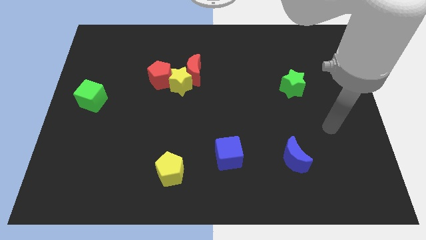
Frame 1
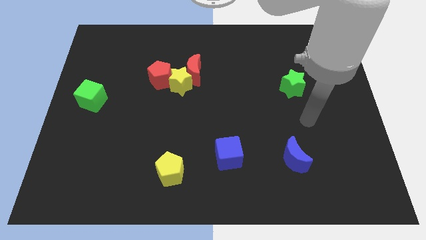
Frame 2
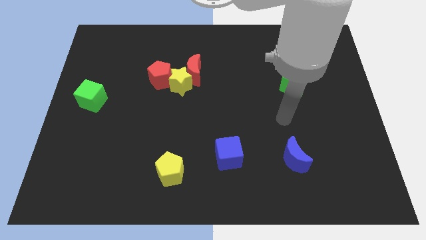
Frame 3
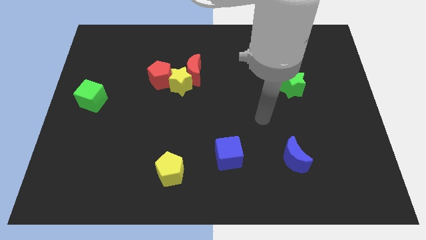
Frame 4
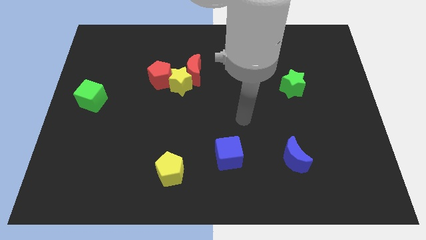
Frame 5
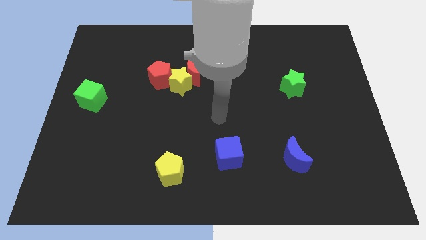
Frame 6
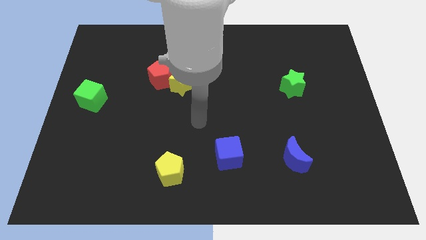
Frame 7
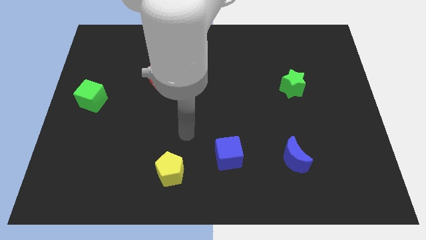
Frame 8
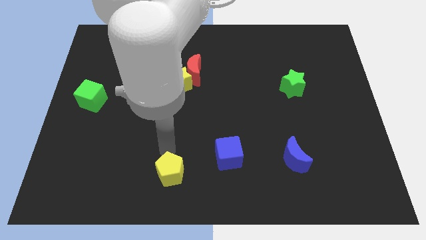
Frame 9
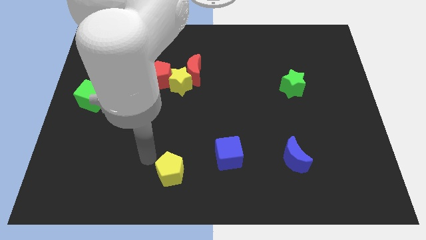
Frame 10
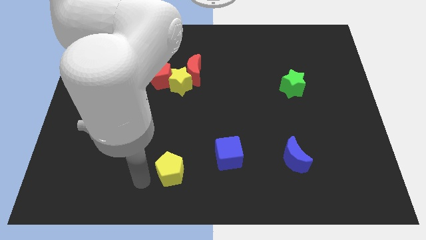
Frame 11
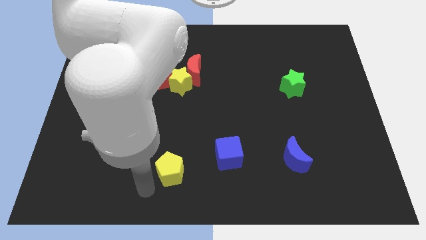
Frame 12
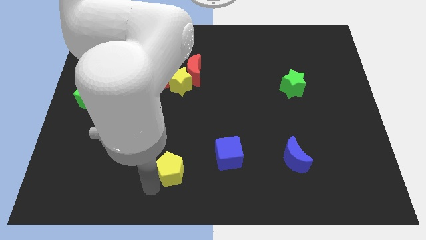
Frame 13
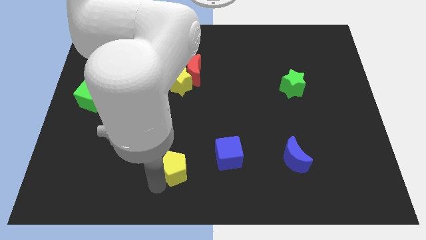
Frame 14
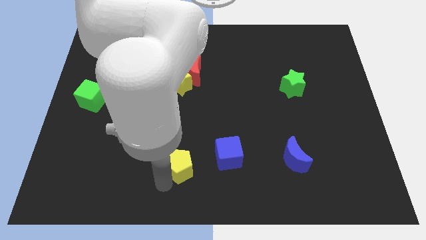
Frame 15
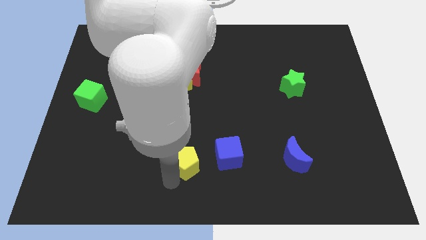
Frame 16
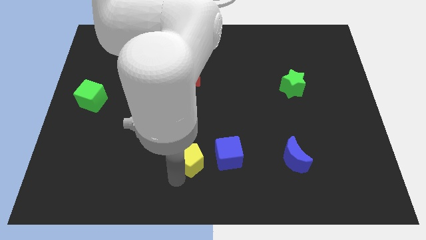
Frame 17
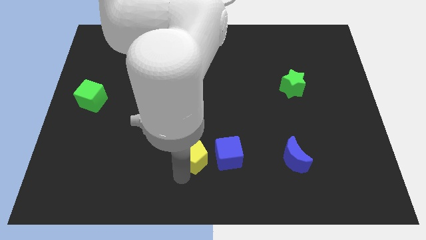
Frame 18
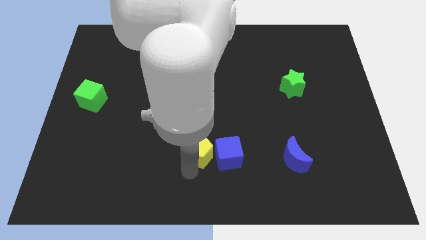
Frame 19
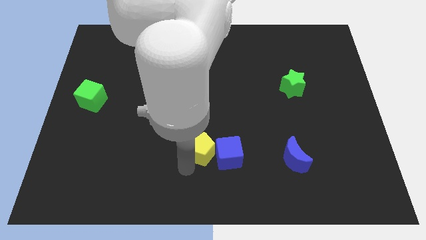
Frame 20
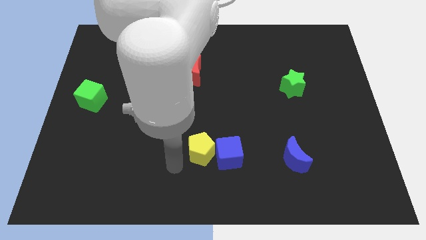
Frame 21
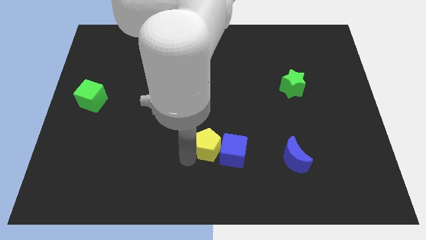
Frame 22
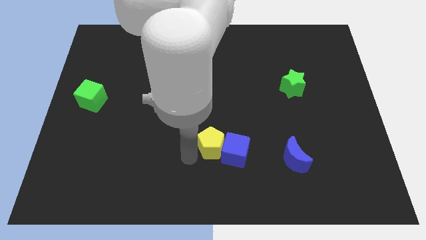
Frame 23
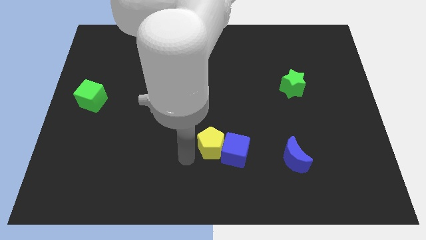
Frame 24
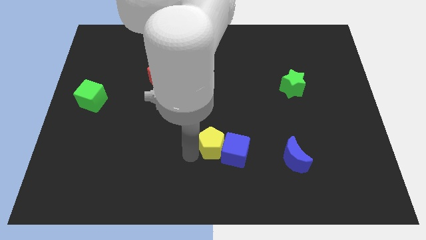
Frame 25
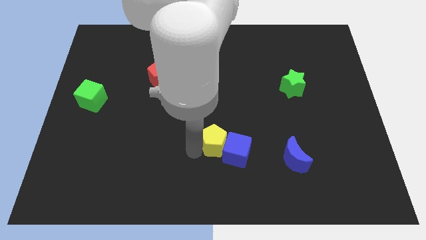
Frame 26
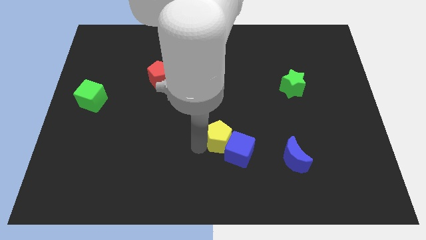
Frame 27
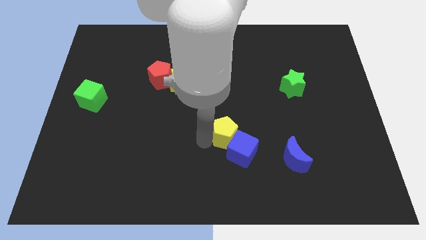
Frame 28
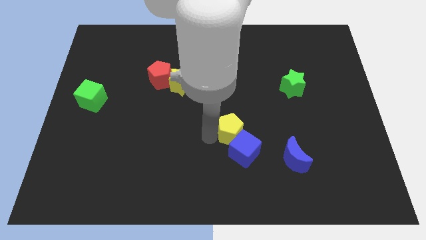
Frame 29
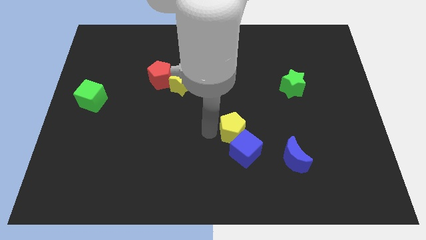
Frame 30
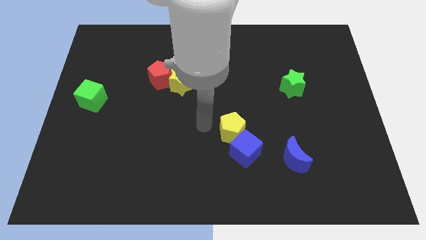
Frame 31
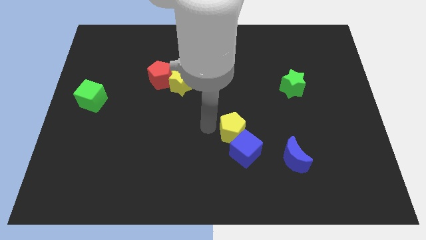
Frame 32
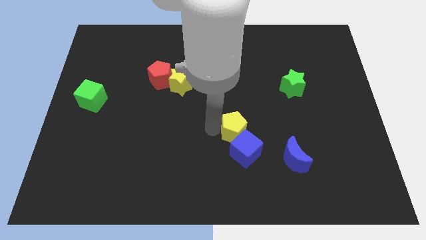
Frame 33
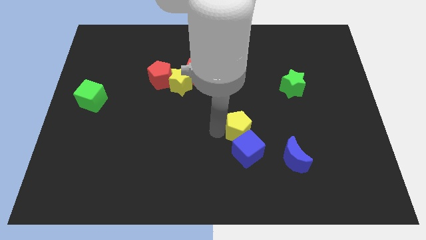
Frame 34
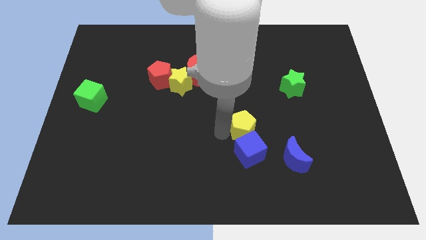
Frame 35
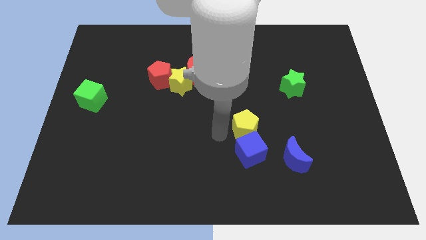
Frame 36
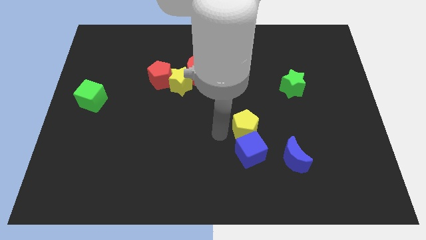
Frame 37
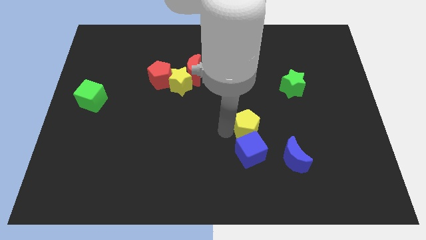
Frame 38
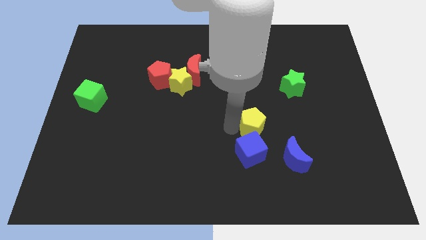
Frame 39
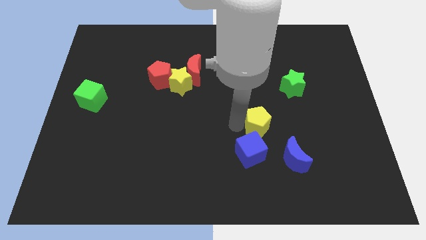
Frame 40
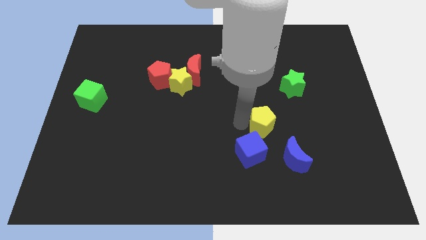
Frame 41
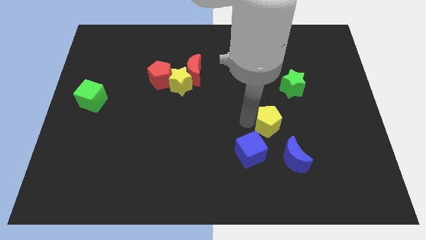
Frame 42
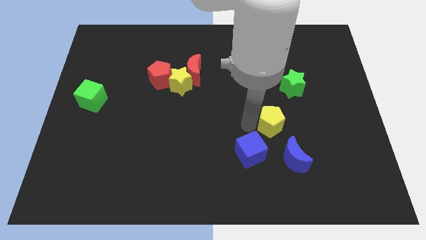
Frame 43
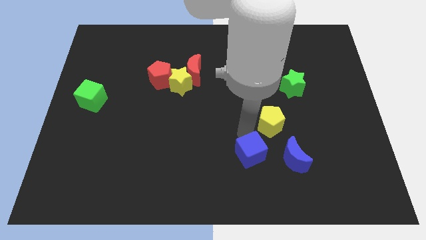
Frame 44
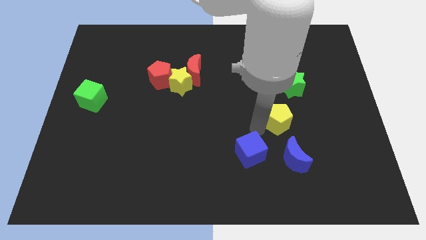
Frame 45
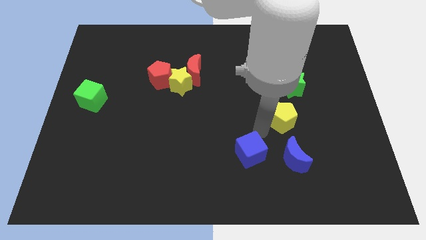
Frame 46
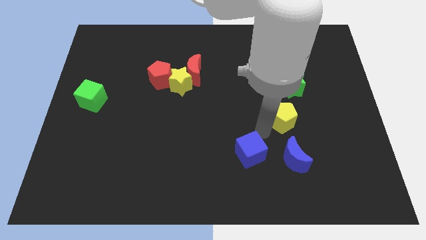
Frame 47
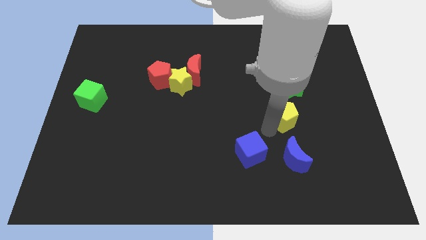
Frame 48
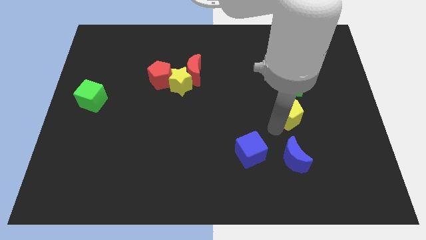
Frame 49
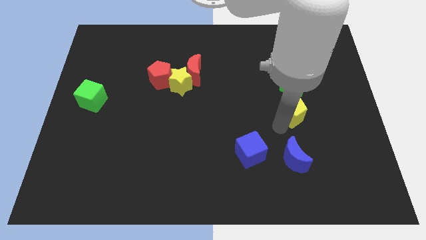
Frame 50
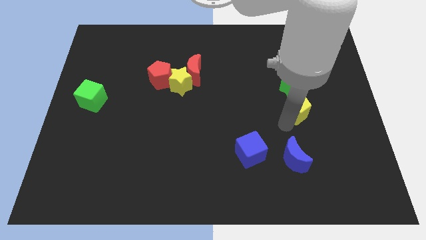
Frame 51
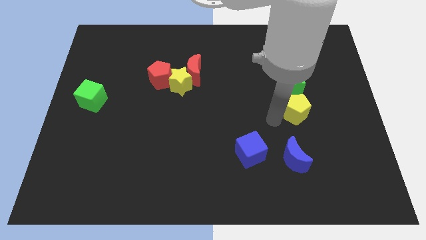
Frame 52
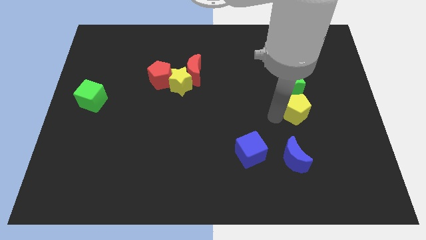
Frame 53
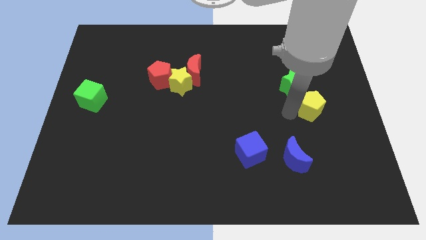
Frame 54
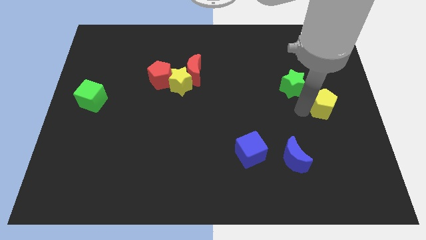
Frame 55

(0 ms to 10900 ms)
move the yellow pentagon to the right side

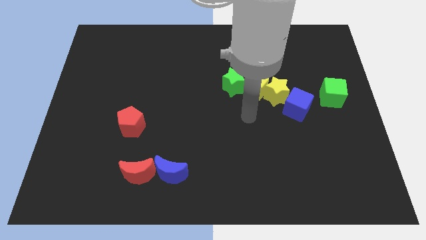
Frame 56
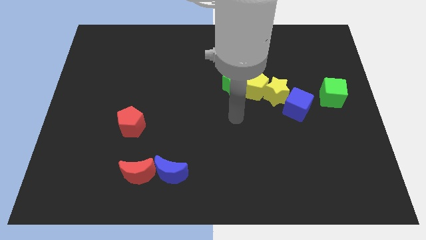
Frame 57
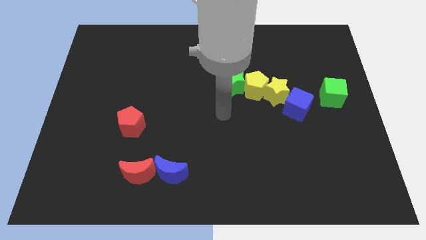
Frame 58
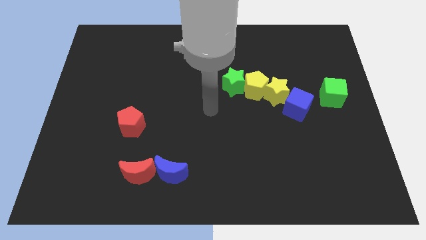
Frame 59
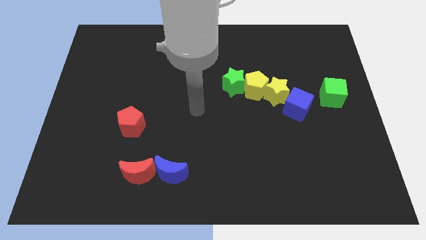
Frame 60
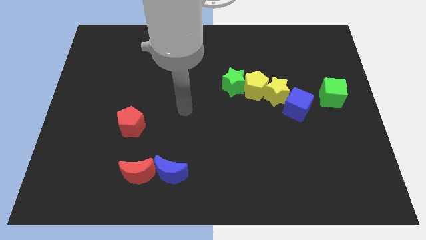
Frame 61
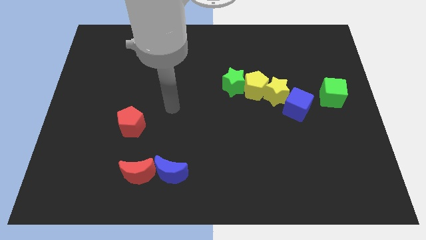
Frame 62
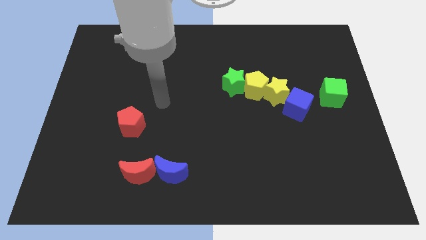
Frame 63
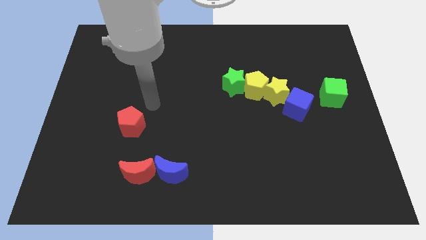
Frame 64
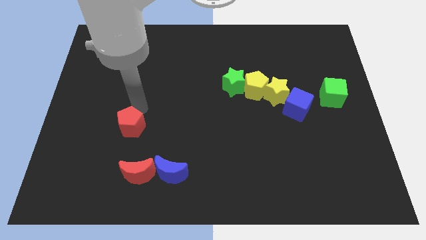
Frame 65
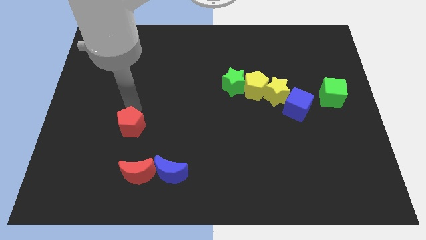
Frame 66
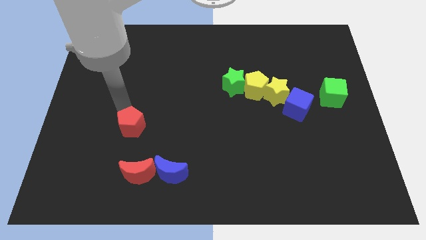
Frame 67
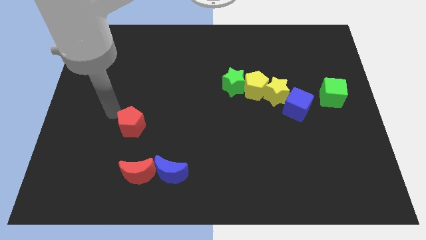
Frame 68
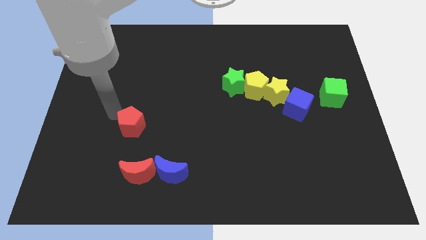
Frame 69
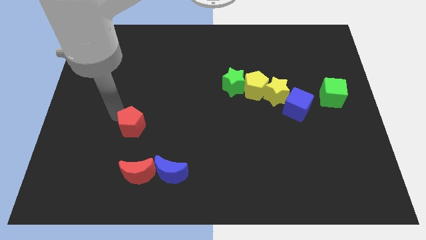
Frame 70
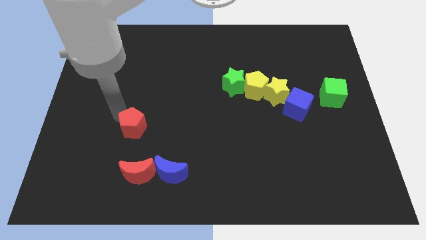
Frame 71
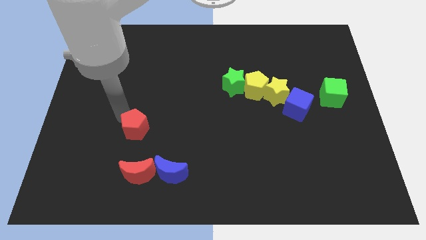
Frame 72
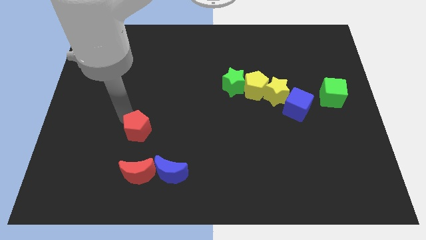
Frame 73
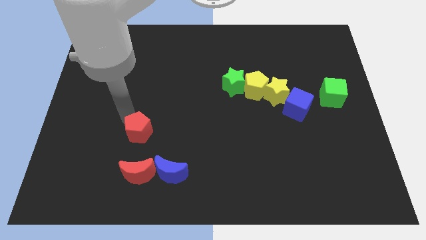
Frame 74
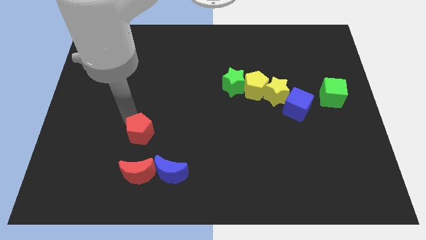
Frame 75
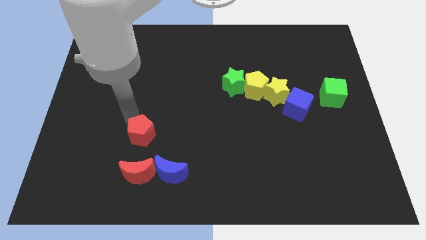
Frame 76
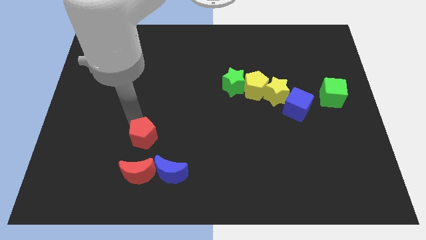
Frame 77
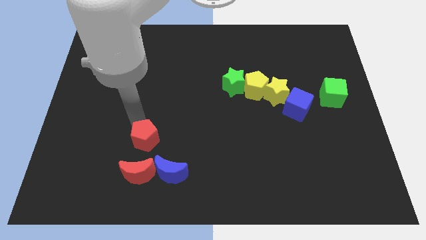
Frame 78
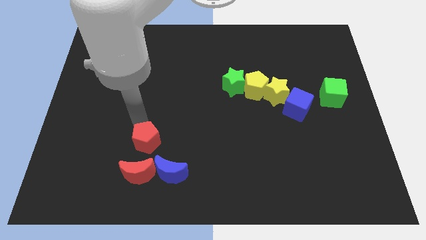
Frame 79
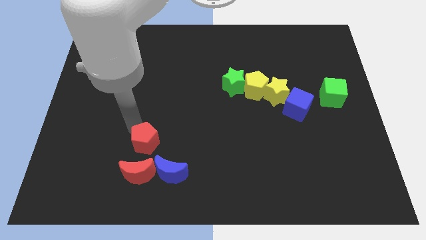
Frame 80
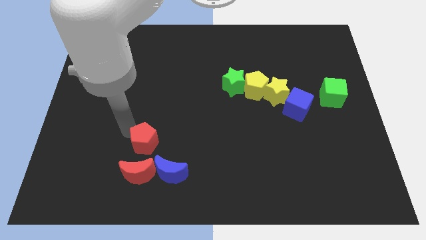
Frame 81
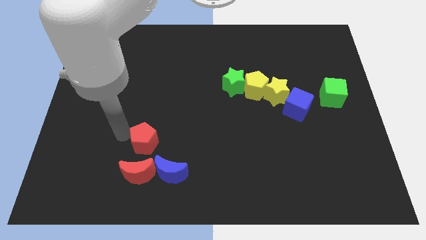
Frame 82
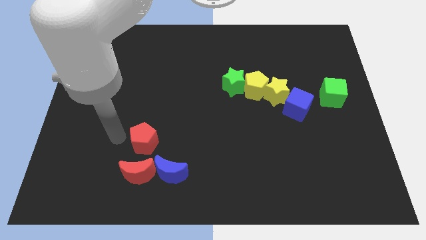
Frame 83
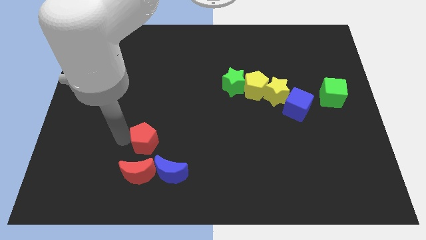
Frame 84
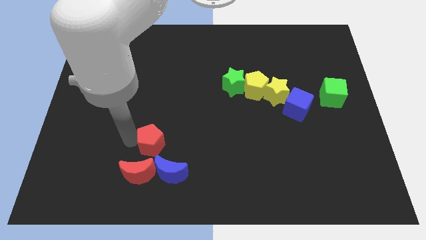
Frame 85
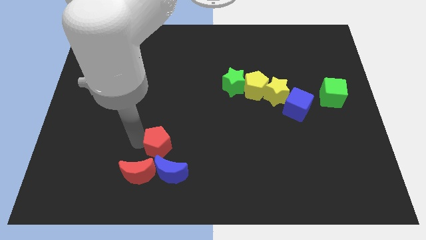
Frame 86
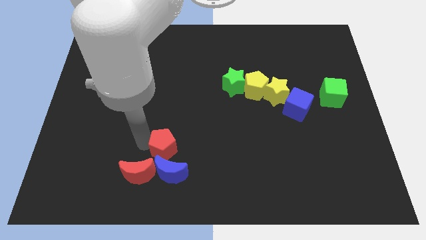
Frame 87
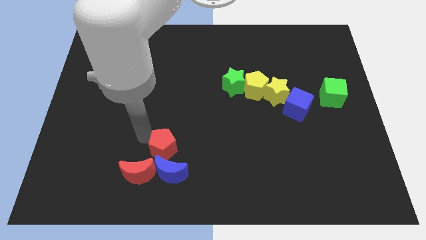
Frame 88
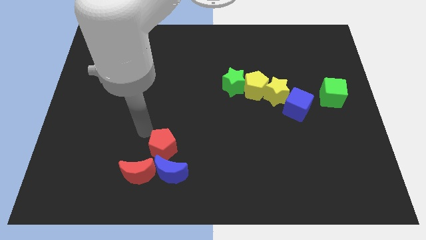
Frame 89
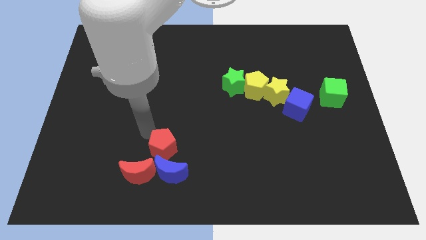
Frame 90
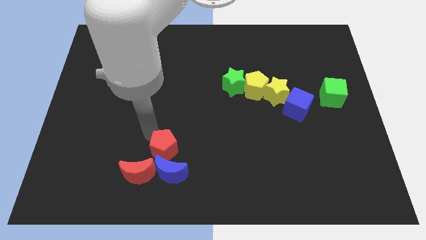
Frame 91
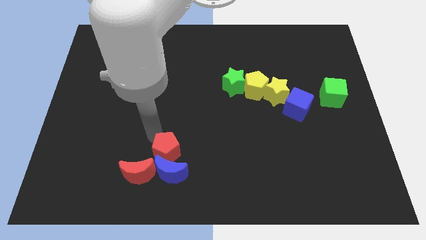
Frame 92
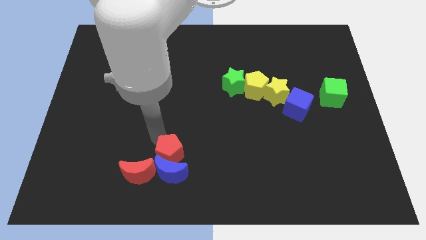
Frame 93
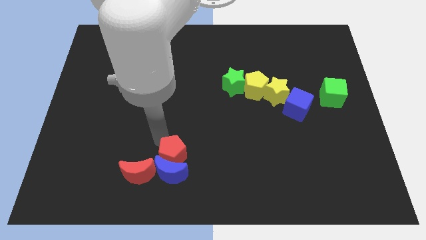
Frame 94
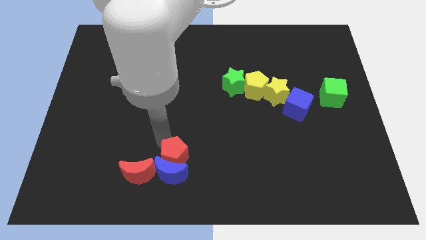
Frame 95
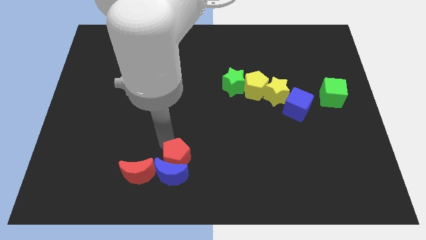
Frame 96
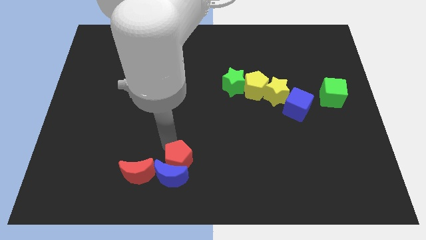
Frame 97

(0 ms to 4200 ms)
move the red pentagon to the bottom side
